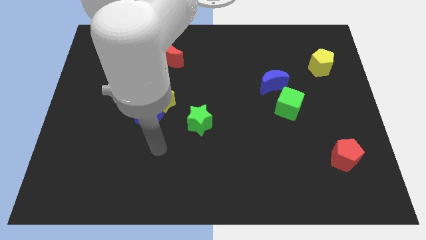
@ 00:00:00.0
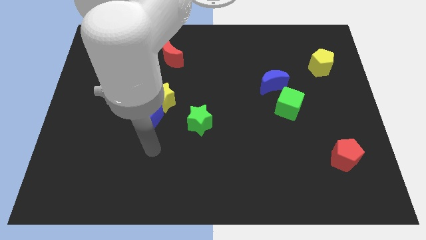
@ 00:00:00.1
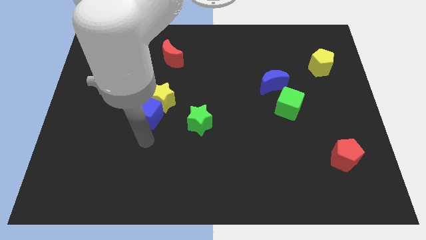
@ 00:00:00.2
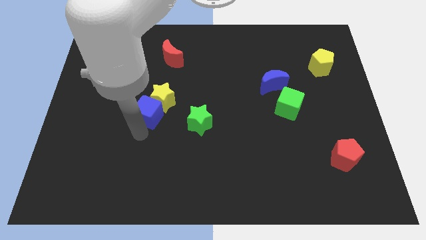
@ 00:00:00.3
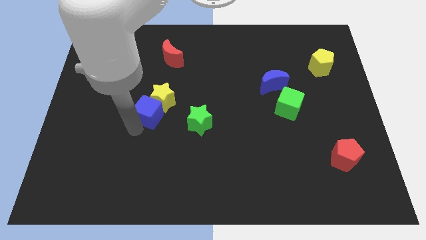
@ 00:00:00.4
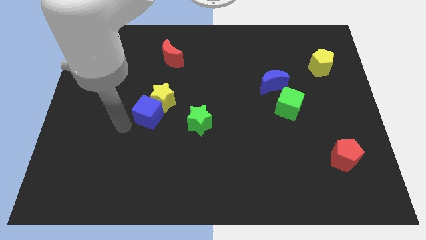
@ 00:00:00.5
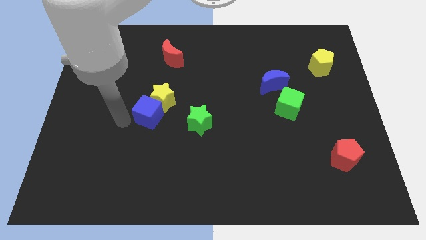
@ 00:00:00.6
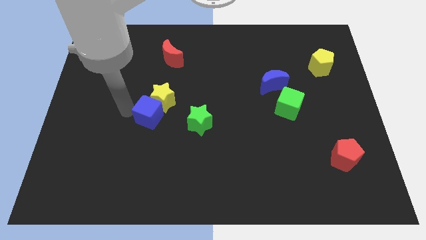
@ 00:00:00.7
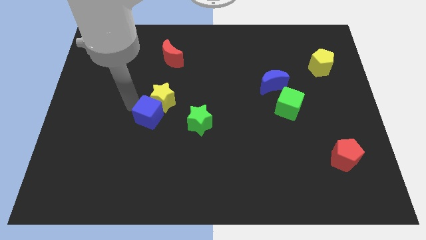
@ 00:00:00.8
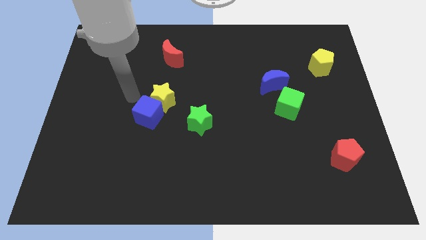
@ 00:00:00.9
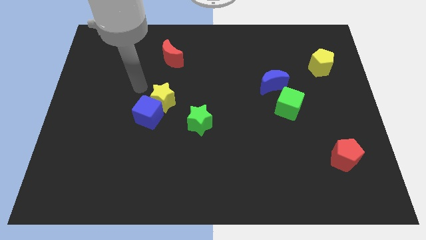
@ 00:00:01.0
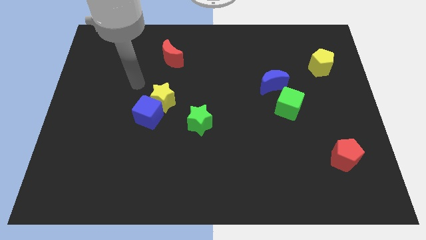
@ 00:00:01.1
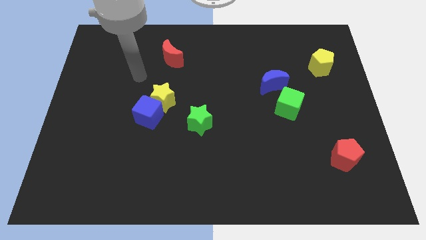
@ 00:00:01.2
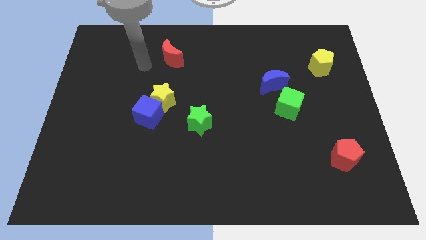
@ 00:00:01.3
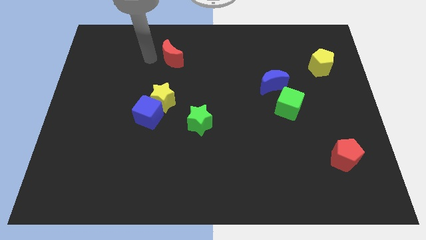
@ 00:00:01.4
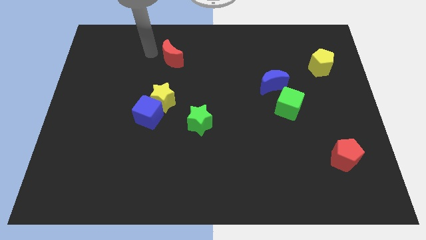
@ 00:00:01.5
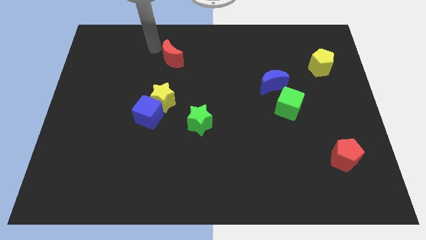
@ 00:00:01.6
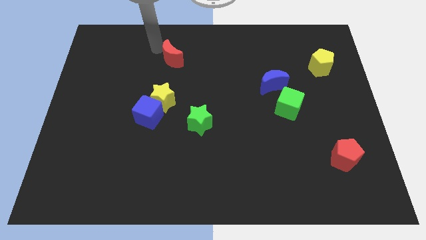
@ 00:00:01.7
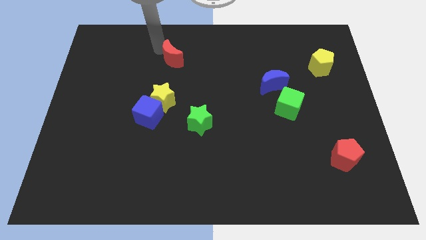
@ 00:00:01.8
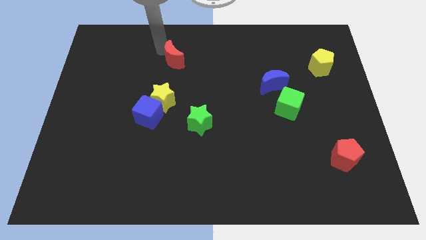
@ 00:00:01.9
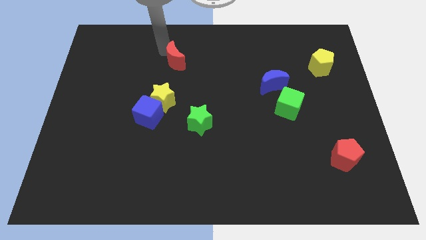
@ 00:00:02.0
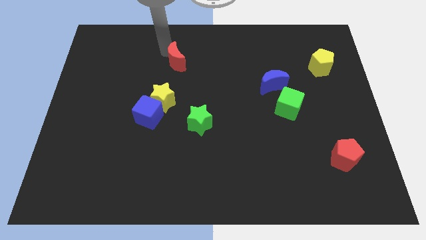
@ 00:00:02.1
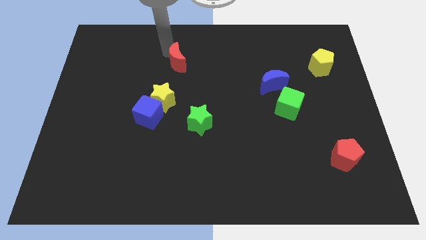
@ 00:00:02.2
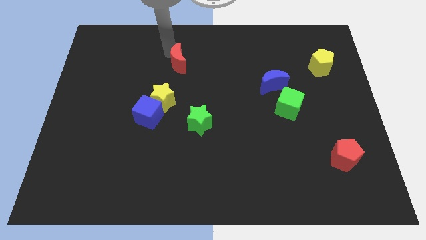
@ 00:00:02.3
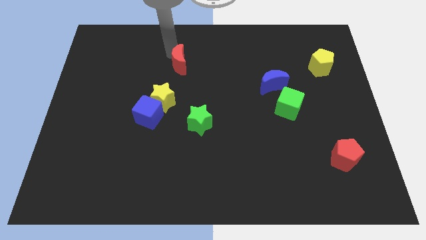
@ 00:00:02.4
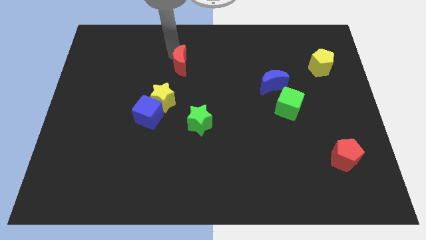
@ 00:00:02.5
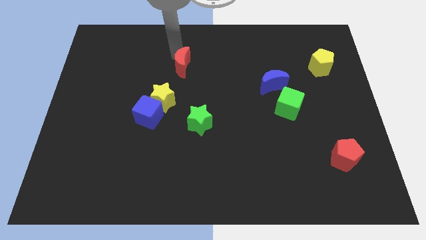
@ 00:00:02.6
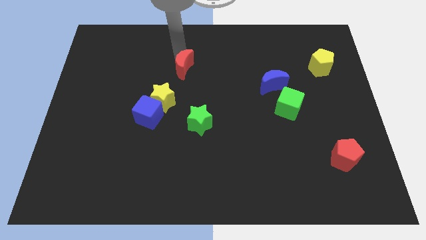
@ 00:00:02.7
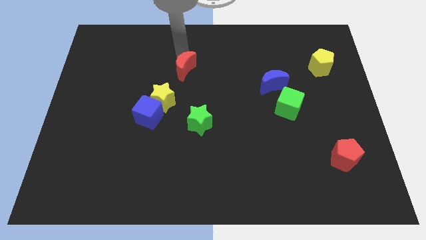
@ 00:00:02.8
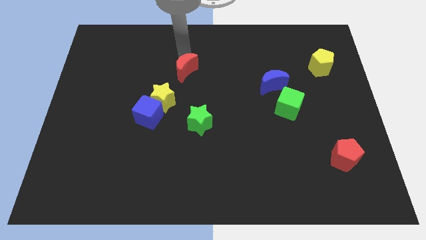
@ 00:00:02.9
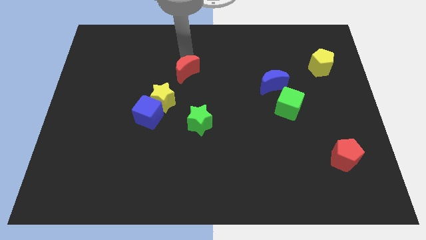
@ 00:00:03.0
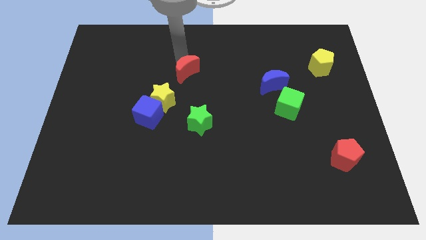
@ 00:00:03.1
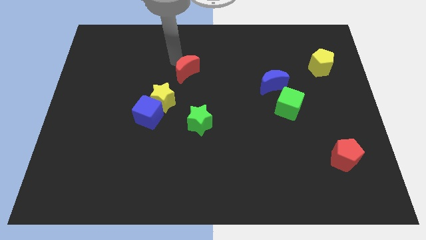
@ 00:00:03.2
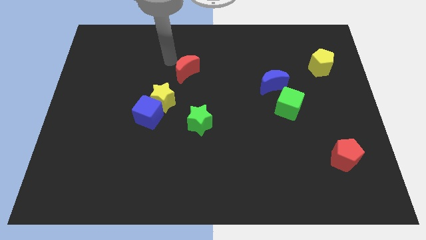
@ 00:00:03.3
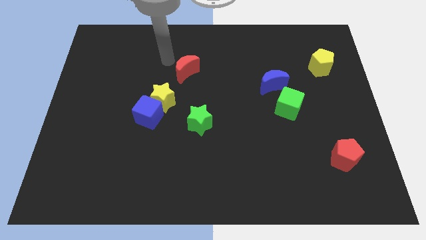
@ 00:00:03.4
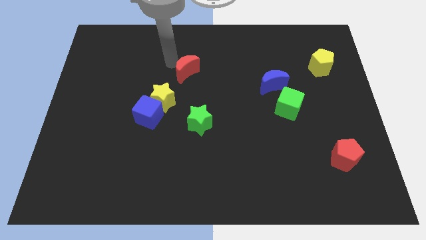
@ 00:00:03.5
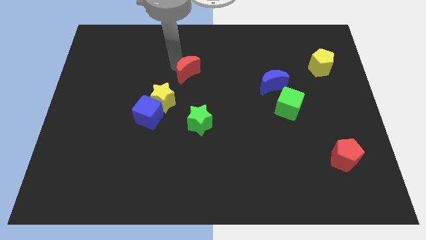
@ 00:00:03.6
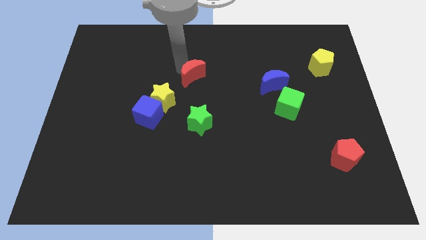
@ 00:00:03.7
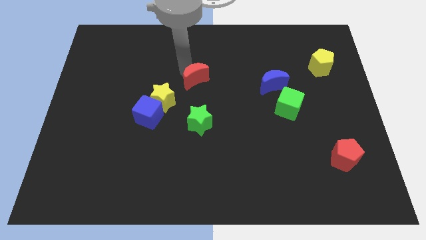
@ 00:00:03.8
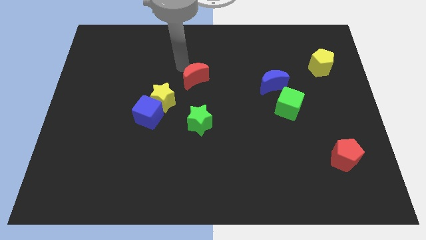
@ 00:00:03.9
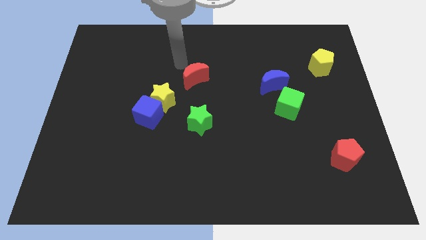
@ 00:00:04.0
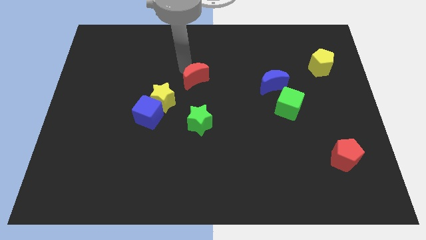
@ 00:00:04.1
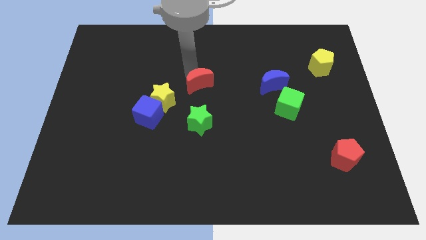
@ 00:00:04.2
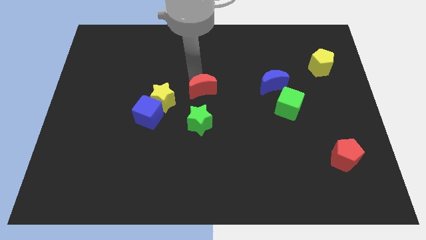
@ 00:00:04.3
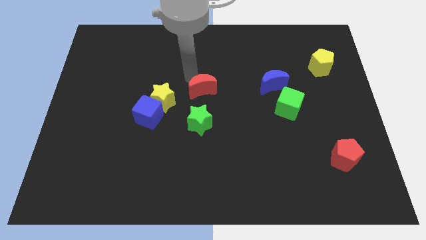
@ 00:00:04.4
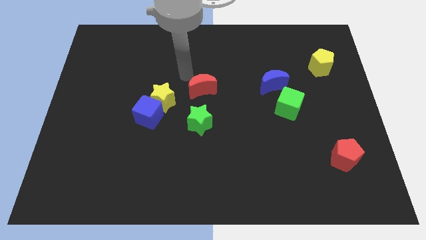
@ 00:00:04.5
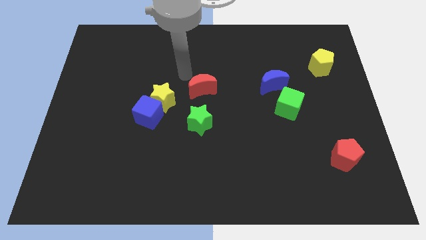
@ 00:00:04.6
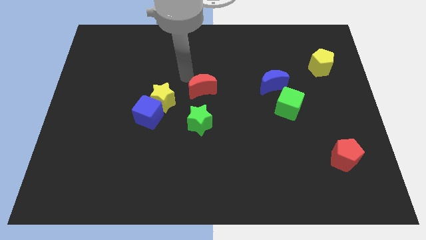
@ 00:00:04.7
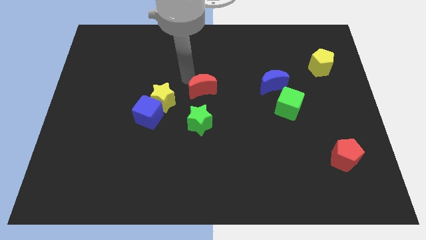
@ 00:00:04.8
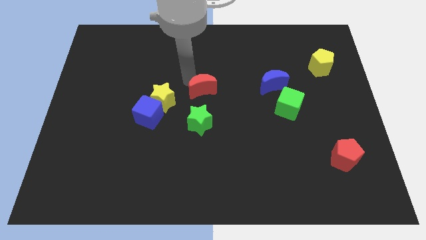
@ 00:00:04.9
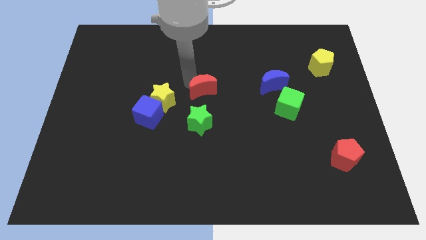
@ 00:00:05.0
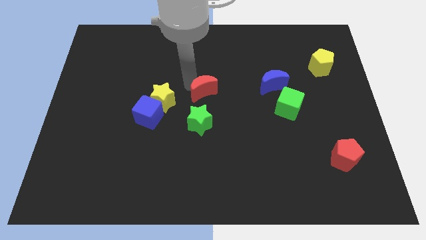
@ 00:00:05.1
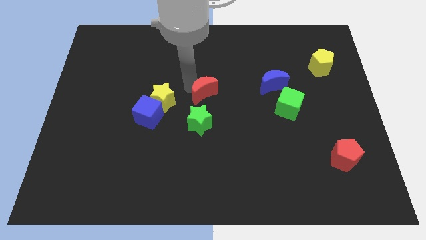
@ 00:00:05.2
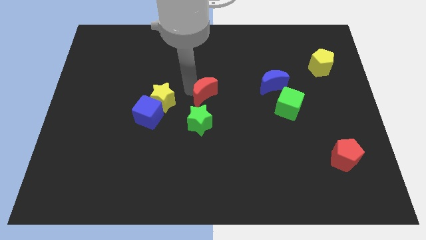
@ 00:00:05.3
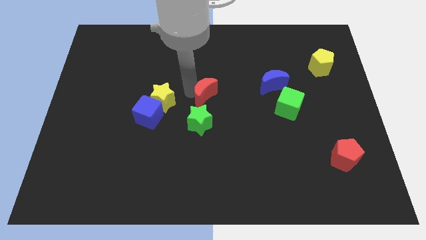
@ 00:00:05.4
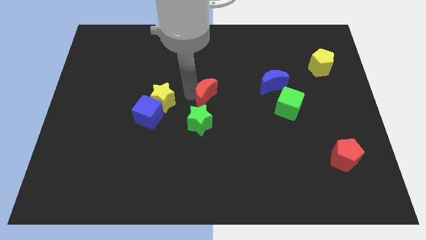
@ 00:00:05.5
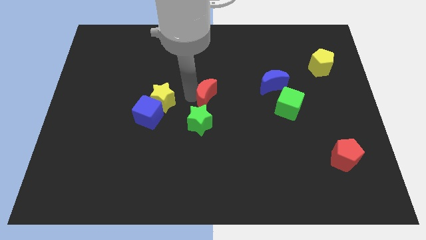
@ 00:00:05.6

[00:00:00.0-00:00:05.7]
slide the red moon to the top right side of the green star

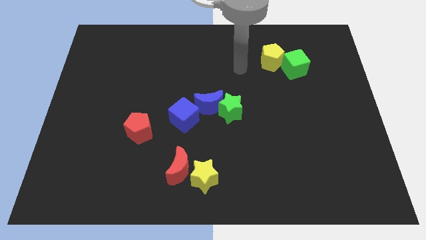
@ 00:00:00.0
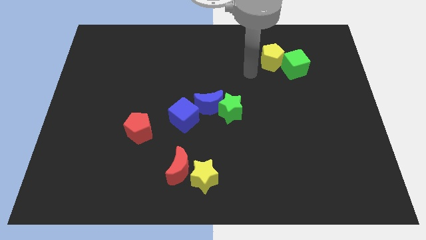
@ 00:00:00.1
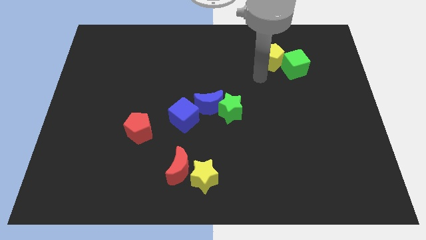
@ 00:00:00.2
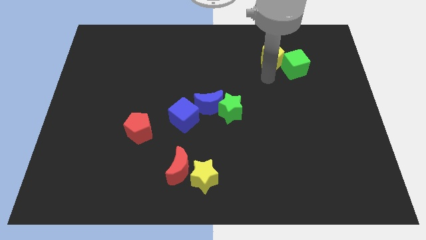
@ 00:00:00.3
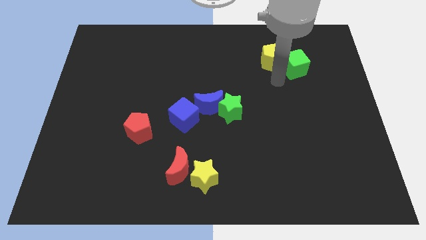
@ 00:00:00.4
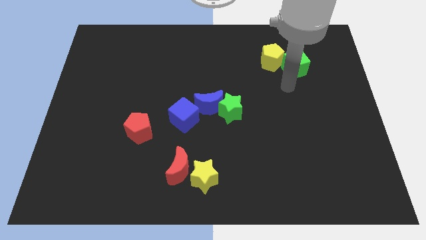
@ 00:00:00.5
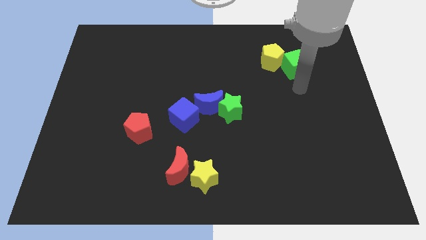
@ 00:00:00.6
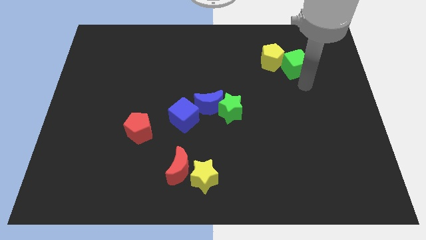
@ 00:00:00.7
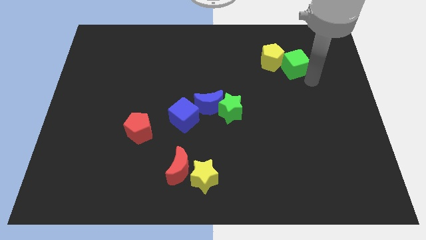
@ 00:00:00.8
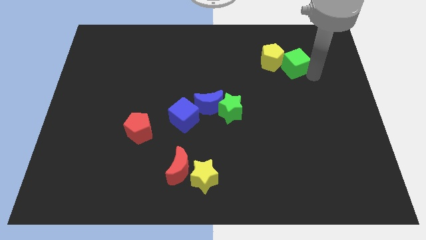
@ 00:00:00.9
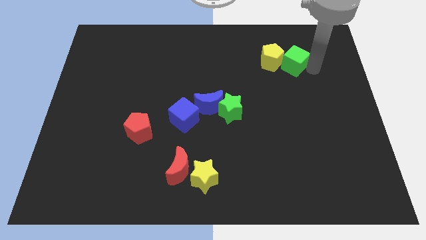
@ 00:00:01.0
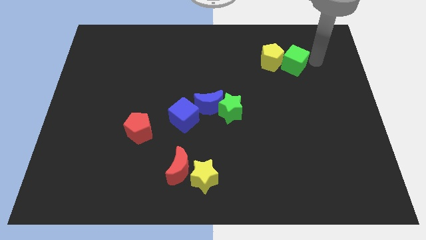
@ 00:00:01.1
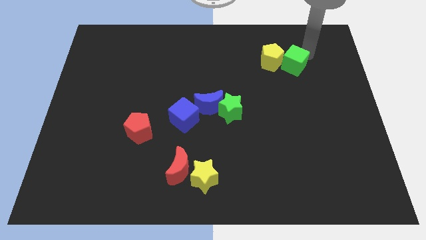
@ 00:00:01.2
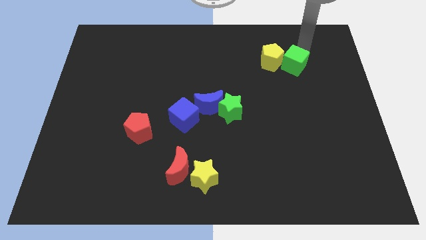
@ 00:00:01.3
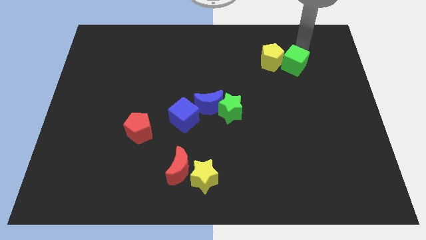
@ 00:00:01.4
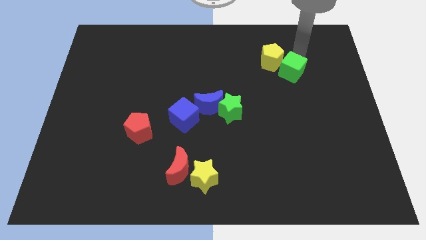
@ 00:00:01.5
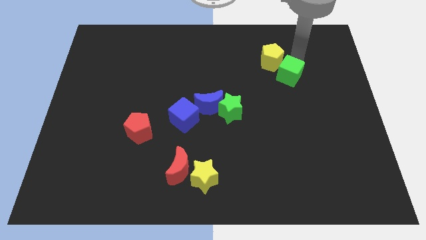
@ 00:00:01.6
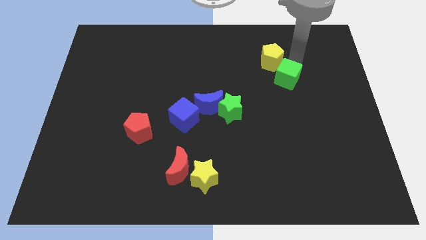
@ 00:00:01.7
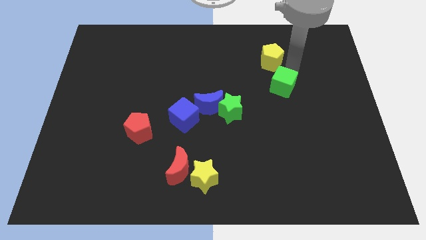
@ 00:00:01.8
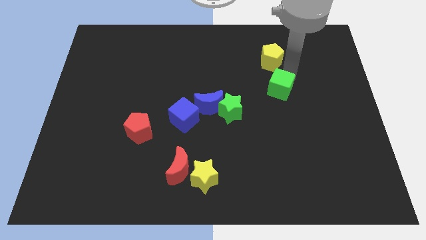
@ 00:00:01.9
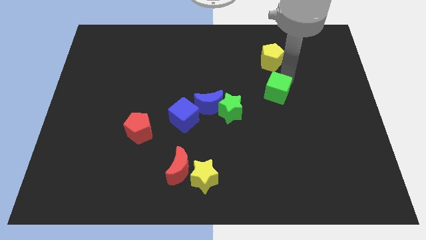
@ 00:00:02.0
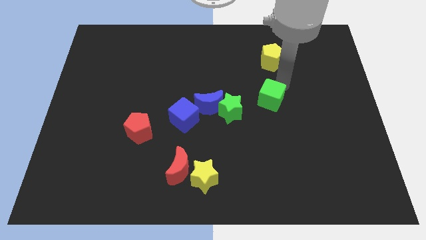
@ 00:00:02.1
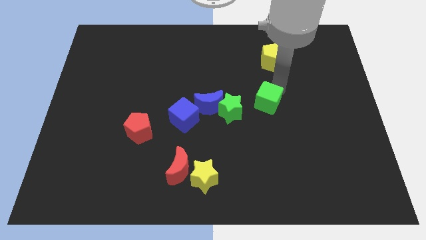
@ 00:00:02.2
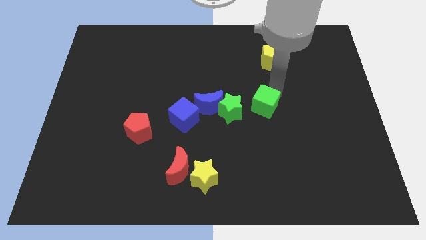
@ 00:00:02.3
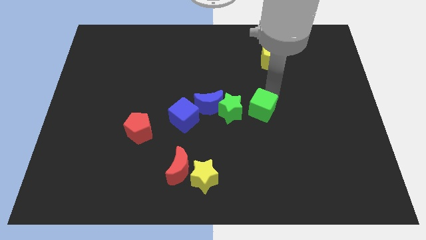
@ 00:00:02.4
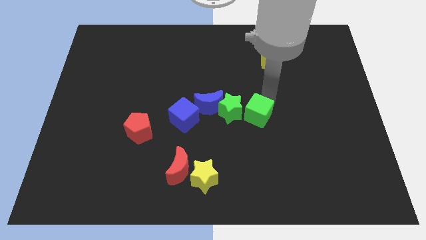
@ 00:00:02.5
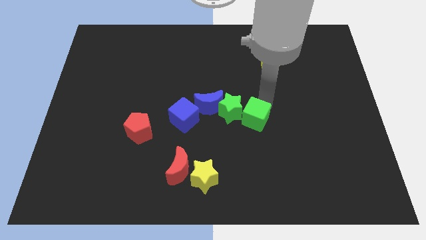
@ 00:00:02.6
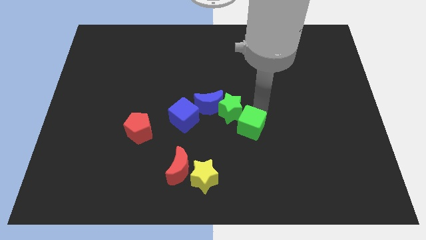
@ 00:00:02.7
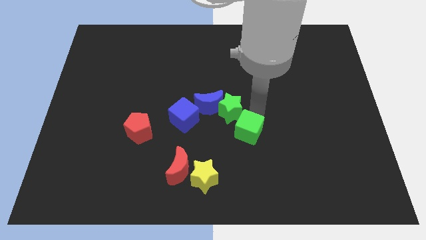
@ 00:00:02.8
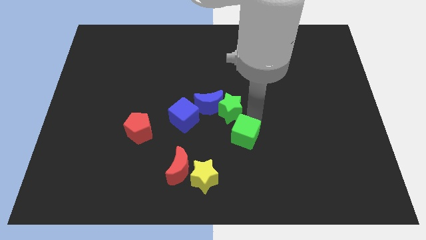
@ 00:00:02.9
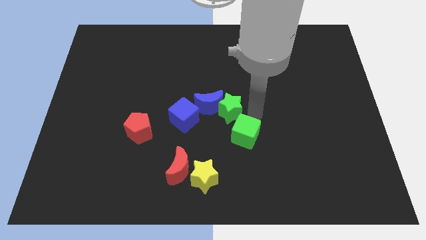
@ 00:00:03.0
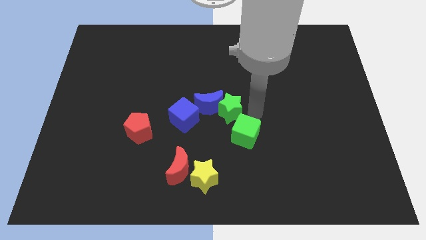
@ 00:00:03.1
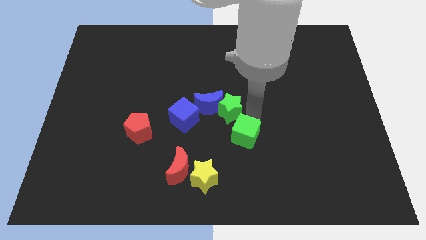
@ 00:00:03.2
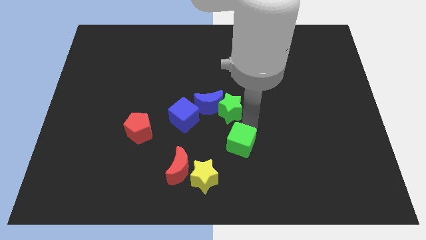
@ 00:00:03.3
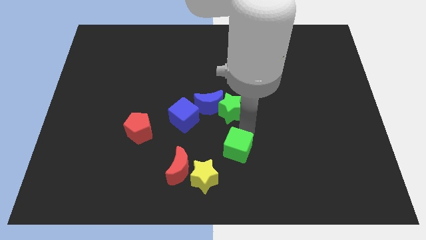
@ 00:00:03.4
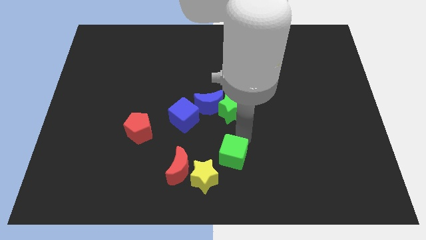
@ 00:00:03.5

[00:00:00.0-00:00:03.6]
move the green cube to the right of the red moon
